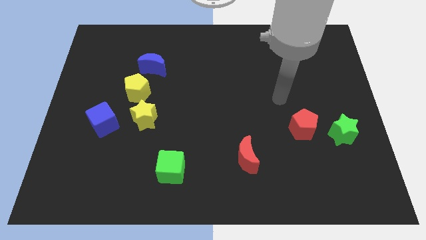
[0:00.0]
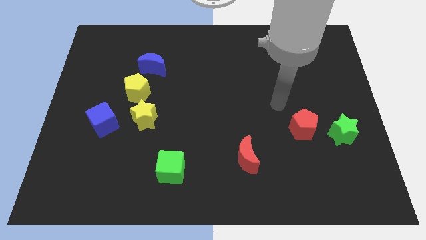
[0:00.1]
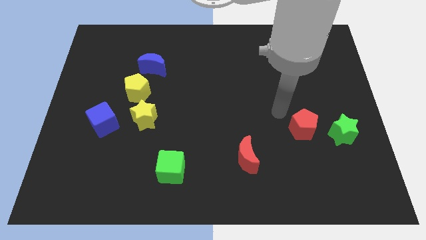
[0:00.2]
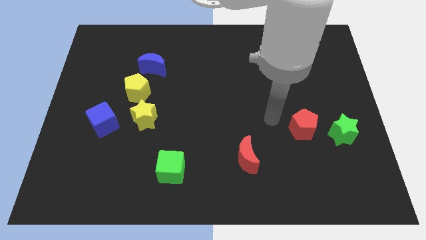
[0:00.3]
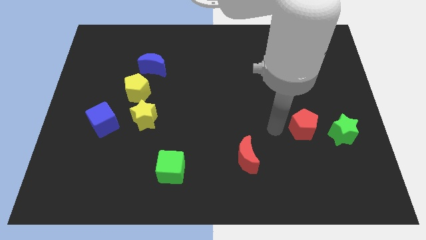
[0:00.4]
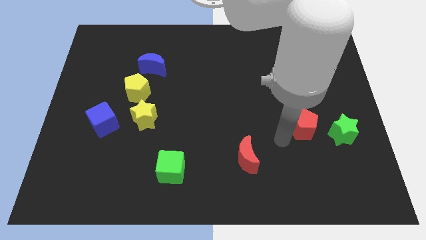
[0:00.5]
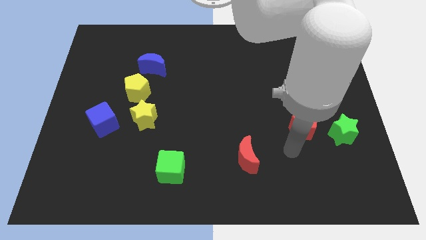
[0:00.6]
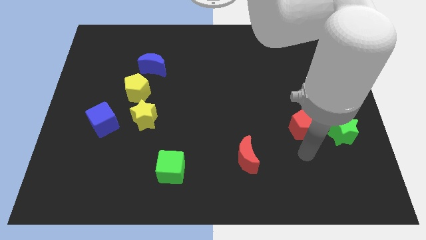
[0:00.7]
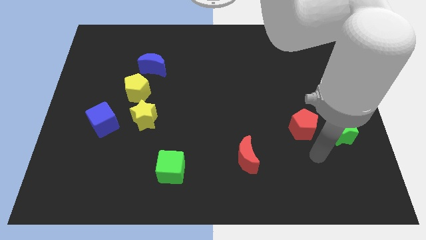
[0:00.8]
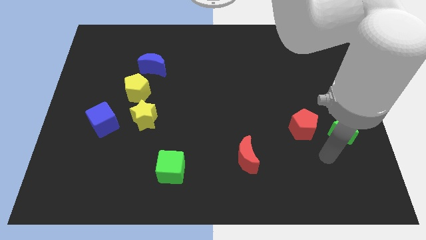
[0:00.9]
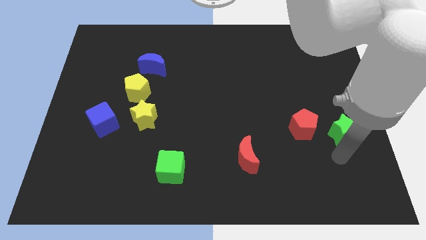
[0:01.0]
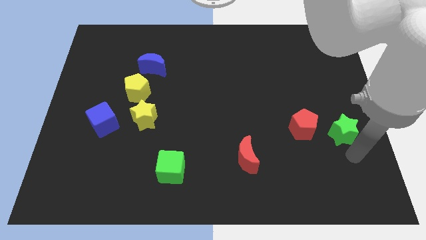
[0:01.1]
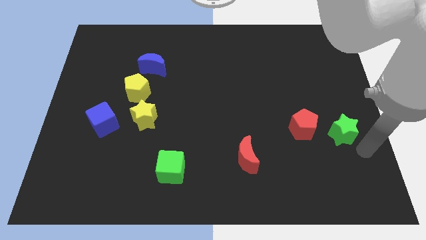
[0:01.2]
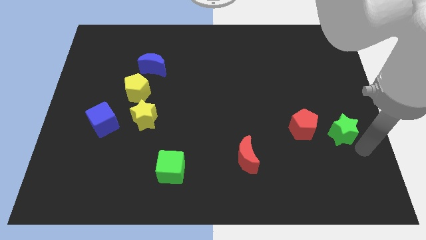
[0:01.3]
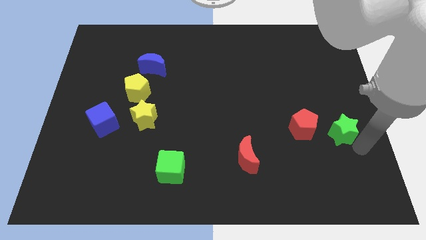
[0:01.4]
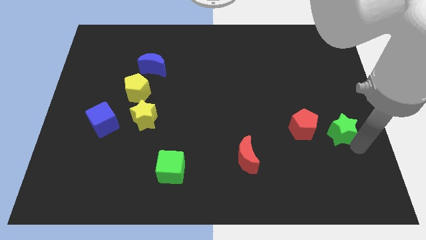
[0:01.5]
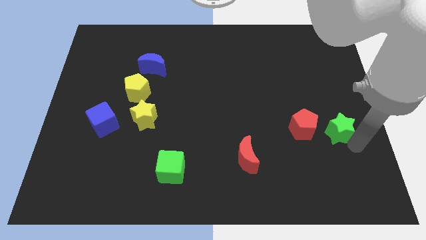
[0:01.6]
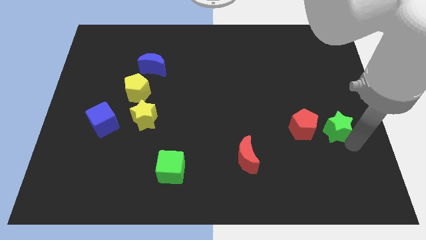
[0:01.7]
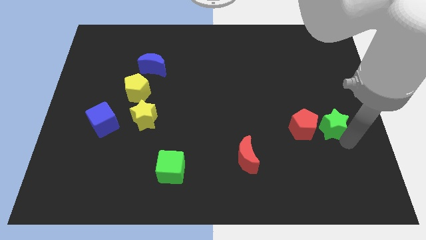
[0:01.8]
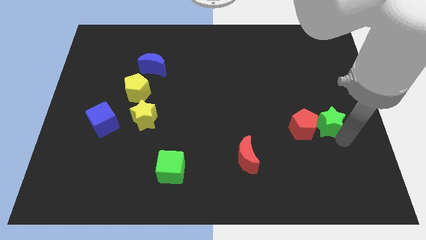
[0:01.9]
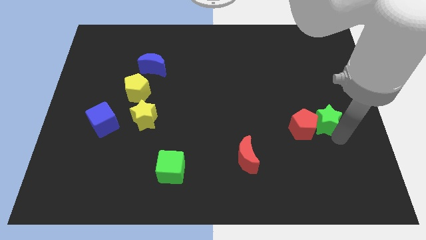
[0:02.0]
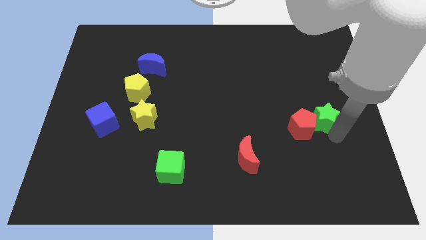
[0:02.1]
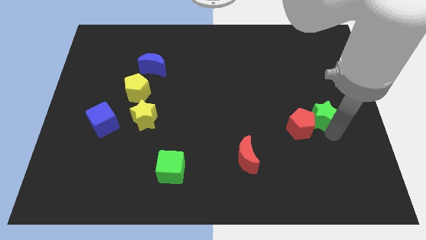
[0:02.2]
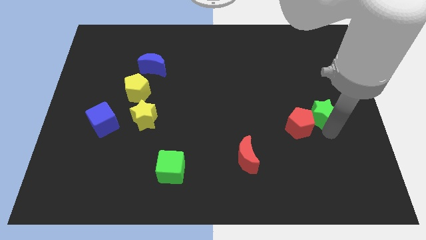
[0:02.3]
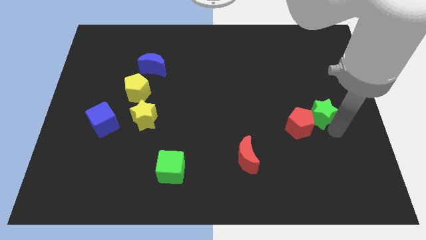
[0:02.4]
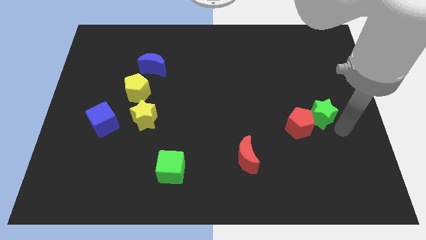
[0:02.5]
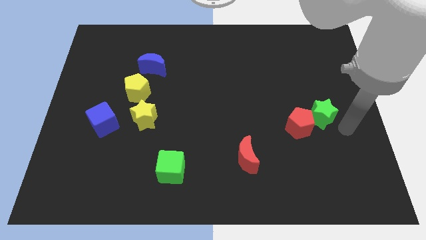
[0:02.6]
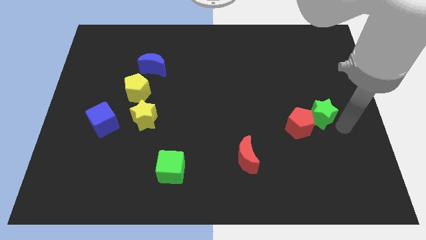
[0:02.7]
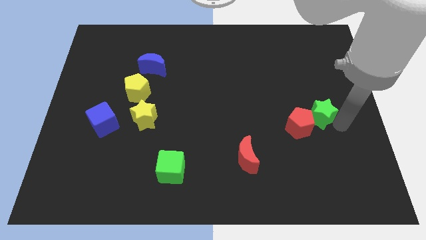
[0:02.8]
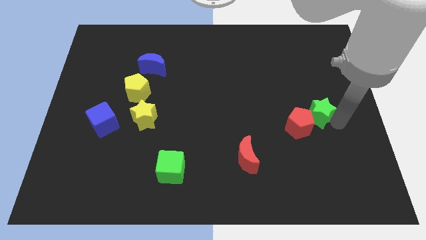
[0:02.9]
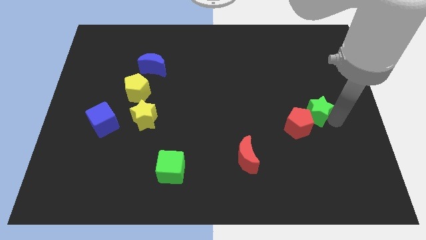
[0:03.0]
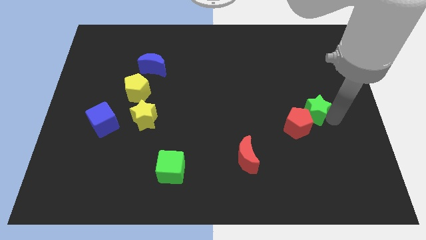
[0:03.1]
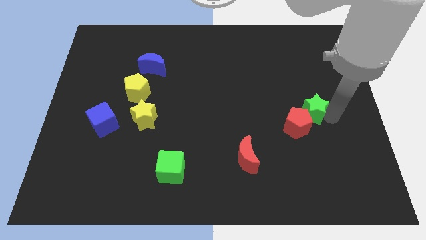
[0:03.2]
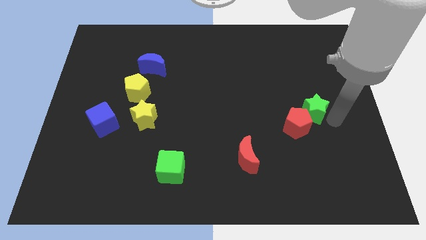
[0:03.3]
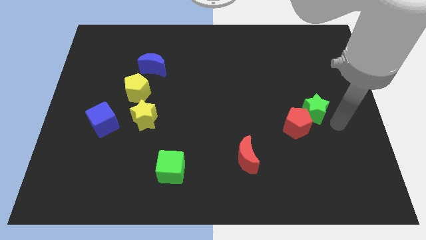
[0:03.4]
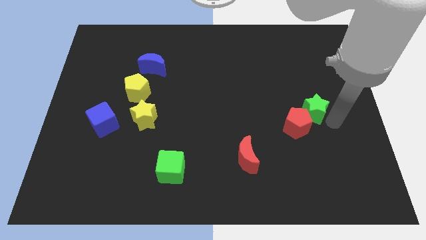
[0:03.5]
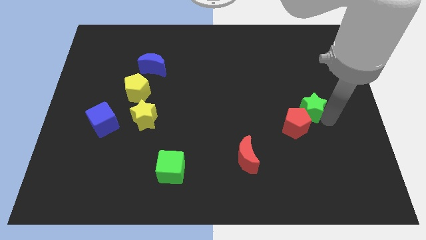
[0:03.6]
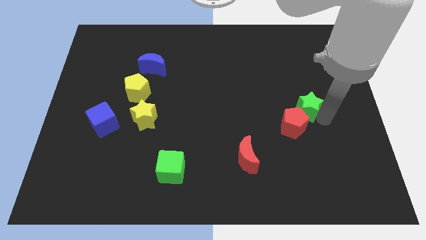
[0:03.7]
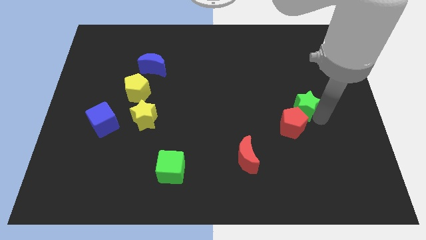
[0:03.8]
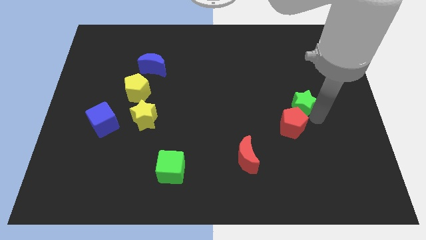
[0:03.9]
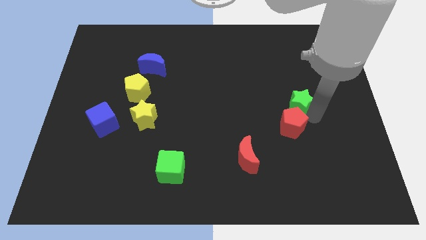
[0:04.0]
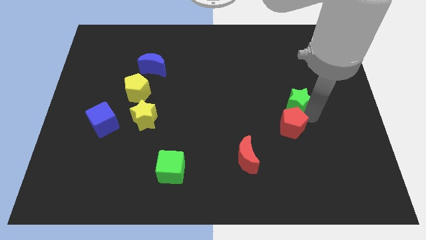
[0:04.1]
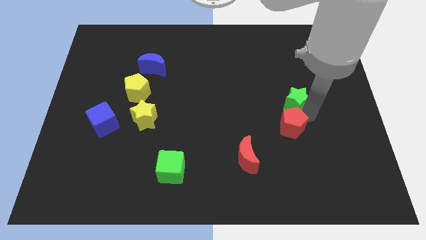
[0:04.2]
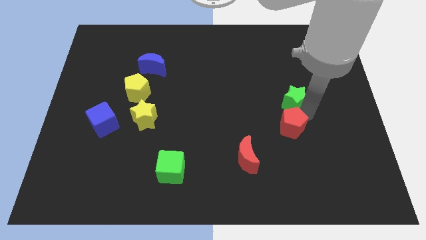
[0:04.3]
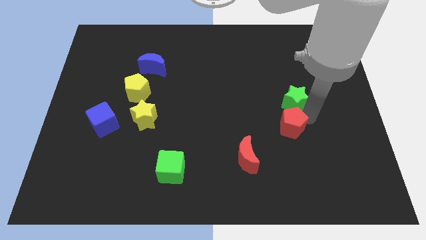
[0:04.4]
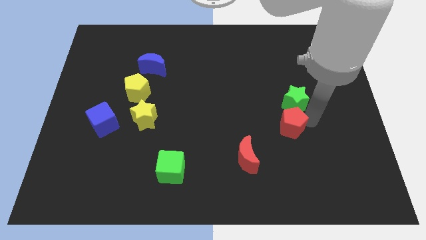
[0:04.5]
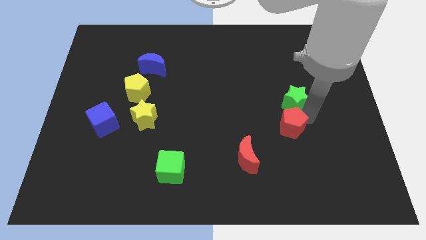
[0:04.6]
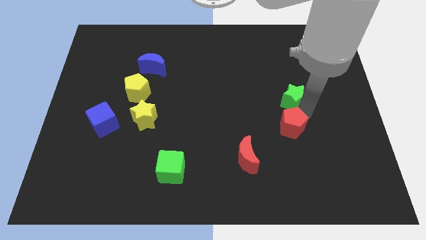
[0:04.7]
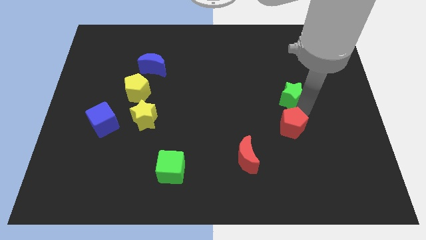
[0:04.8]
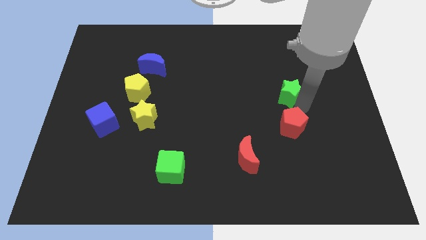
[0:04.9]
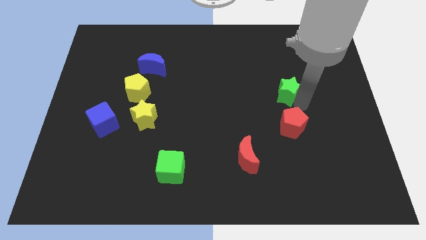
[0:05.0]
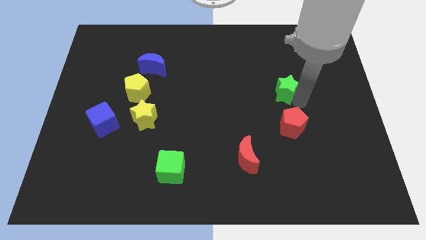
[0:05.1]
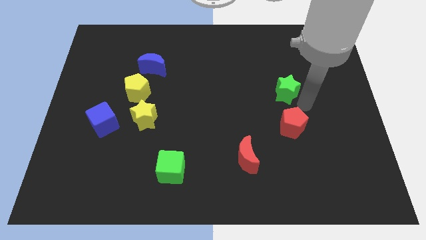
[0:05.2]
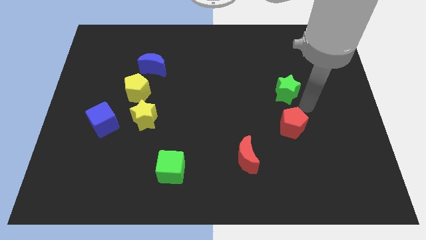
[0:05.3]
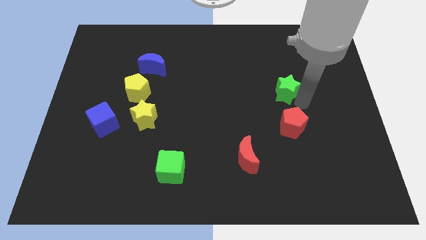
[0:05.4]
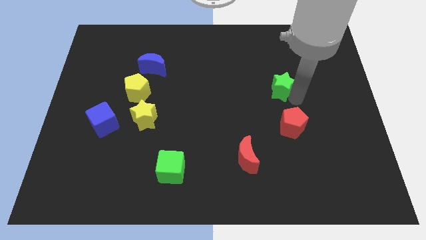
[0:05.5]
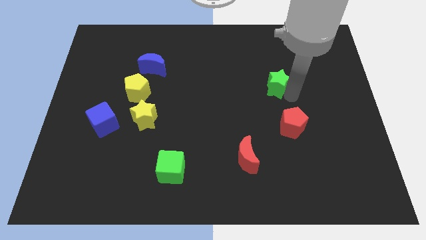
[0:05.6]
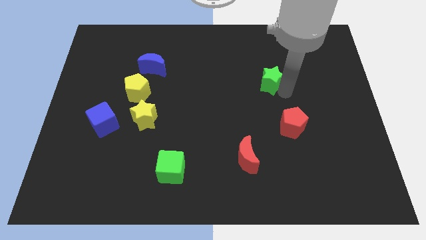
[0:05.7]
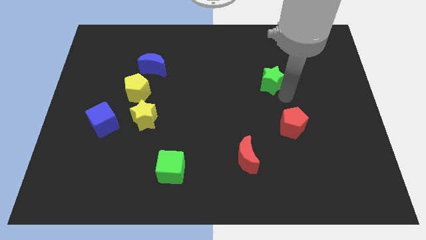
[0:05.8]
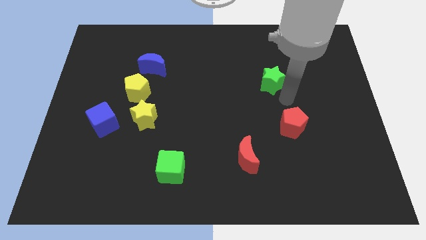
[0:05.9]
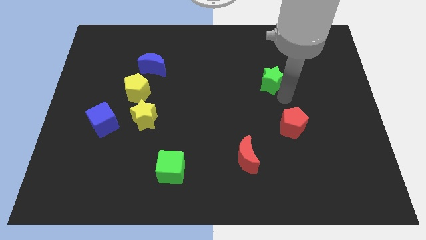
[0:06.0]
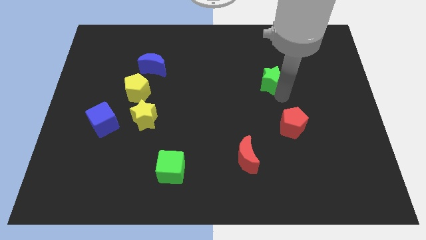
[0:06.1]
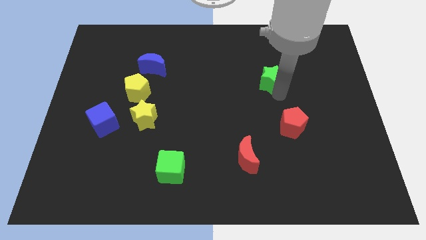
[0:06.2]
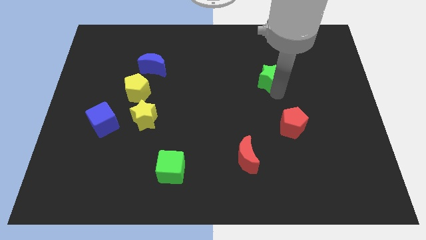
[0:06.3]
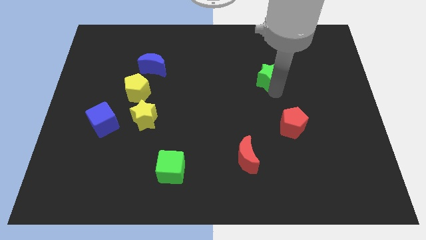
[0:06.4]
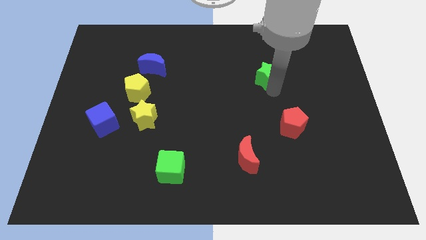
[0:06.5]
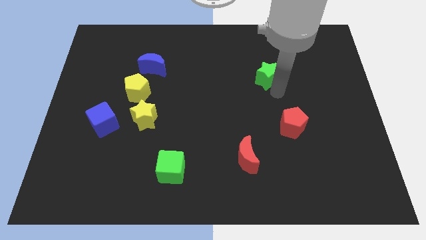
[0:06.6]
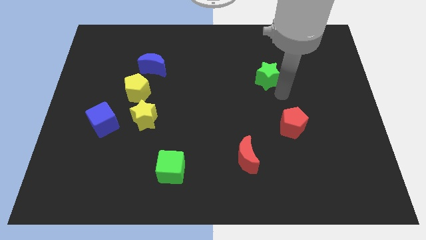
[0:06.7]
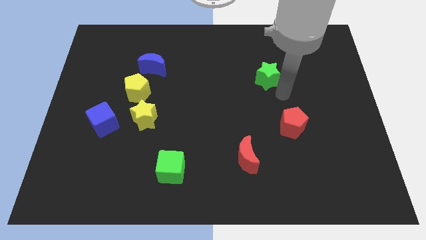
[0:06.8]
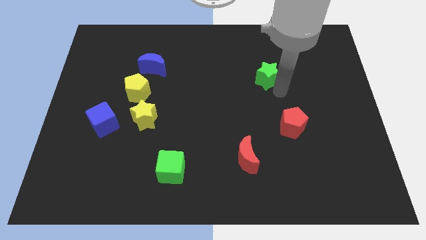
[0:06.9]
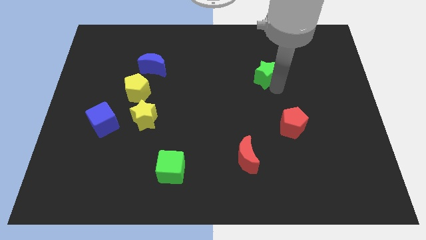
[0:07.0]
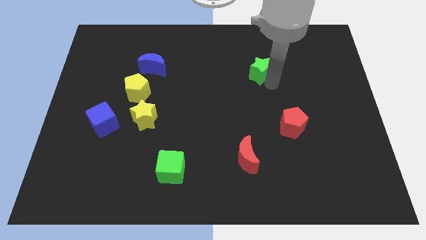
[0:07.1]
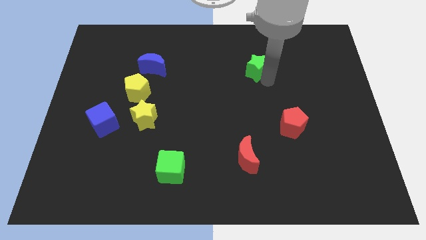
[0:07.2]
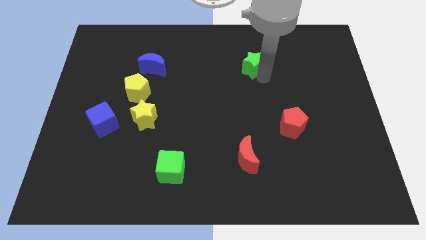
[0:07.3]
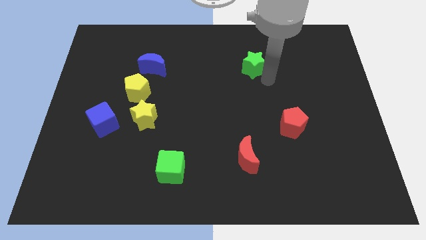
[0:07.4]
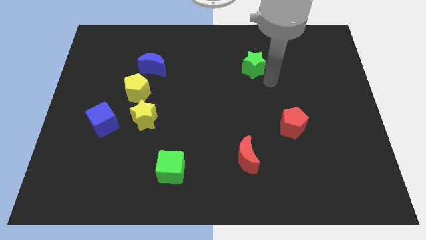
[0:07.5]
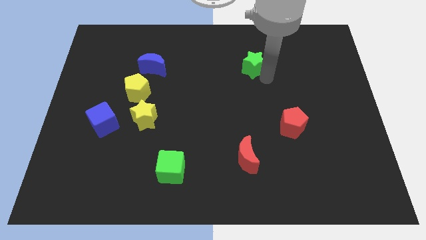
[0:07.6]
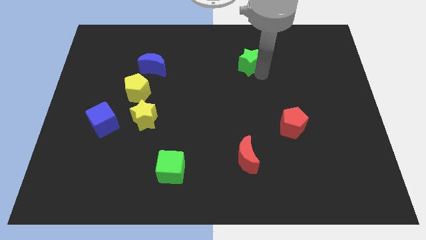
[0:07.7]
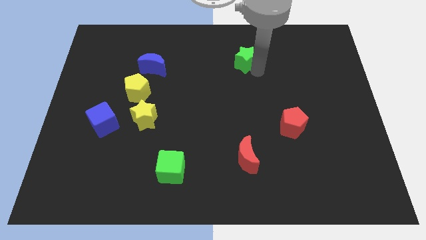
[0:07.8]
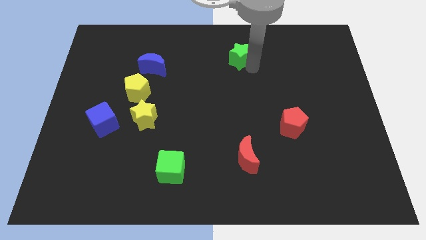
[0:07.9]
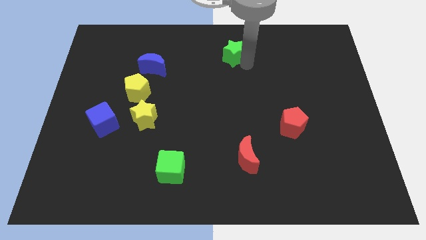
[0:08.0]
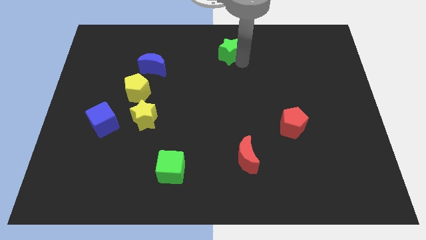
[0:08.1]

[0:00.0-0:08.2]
push the green star to the top side
